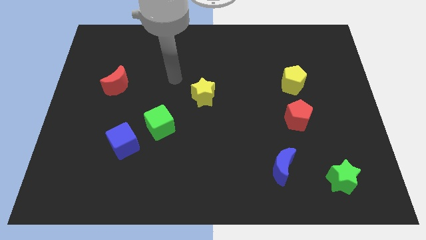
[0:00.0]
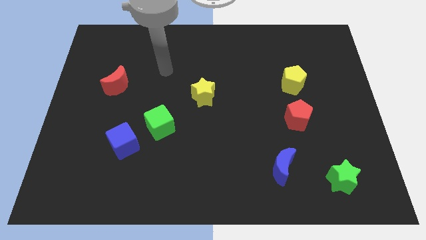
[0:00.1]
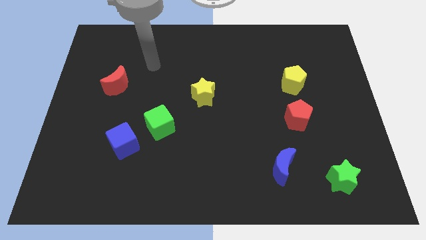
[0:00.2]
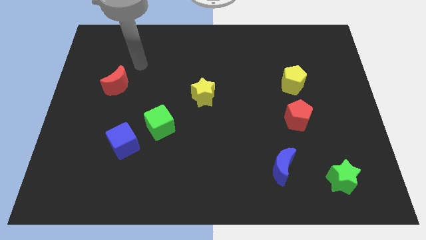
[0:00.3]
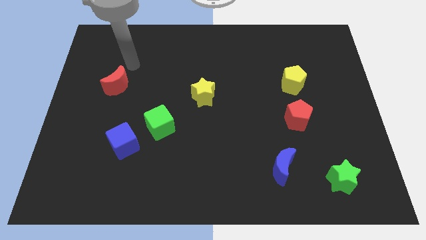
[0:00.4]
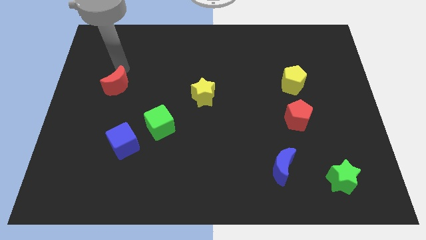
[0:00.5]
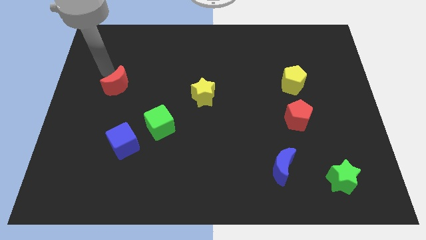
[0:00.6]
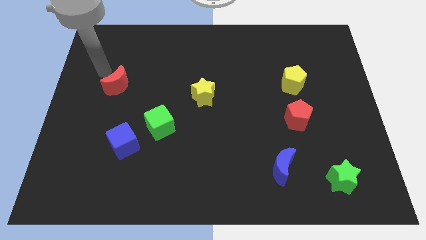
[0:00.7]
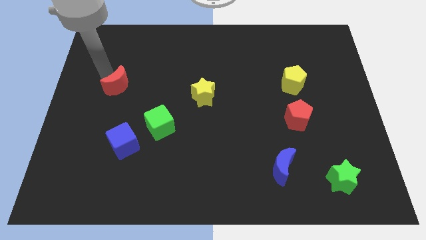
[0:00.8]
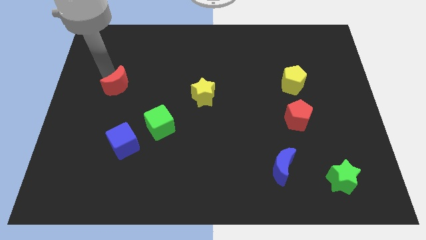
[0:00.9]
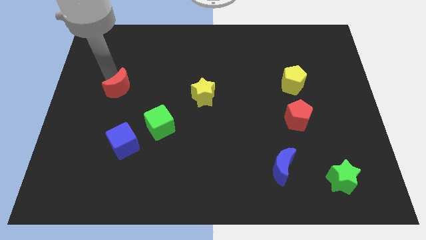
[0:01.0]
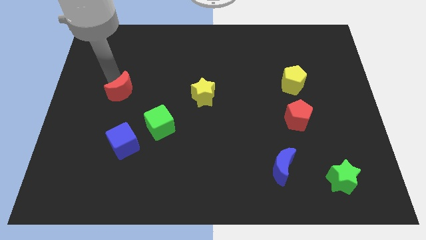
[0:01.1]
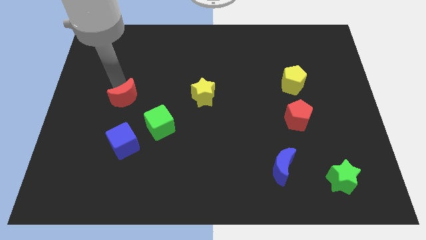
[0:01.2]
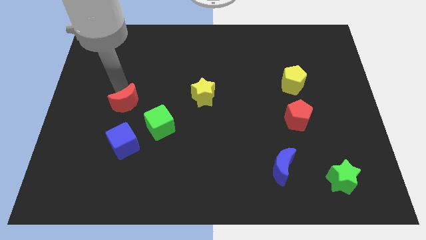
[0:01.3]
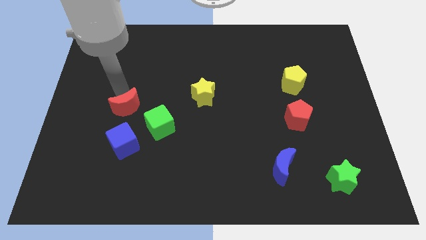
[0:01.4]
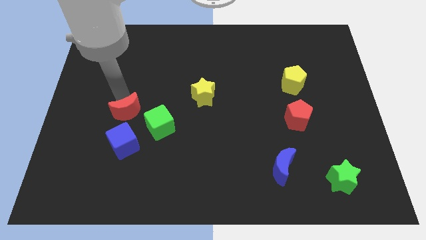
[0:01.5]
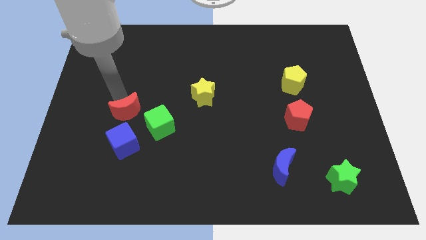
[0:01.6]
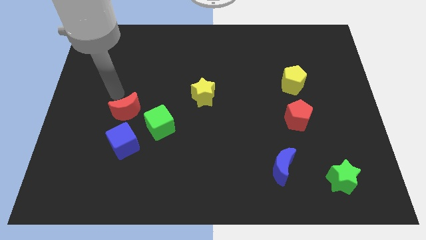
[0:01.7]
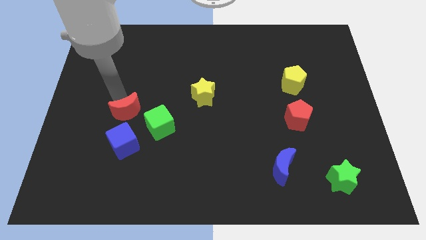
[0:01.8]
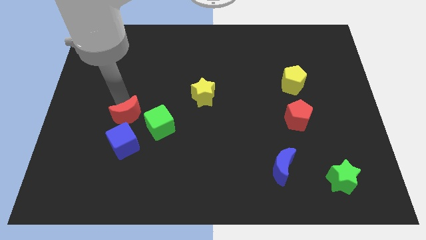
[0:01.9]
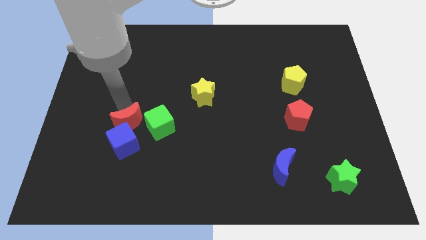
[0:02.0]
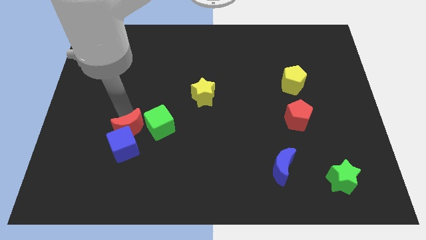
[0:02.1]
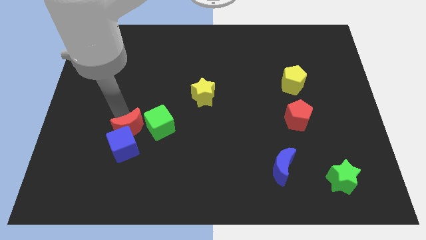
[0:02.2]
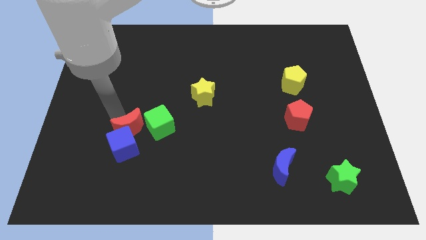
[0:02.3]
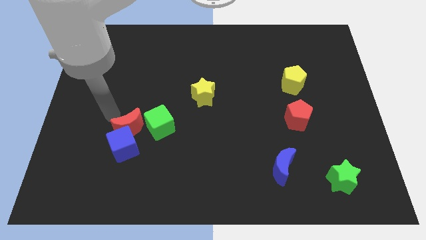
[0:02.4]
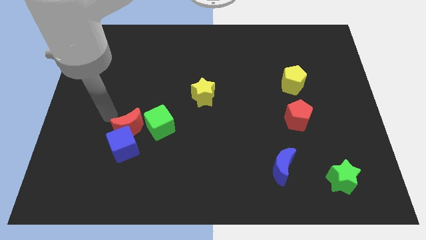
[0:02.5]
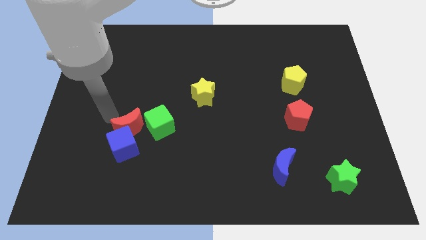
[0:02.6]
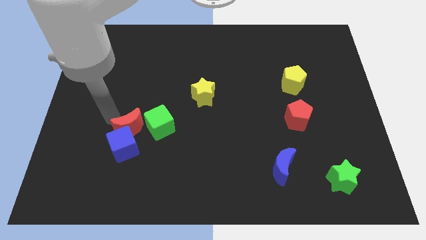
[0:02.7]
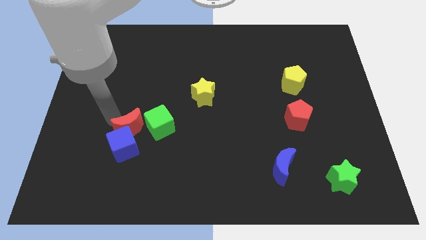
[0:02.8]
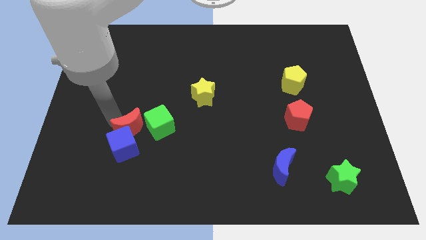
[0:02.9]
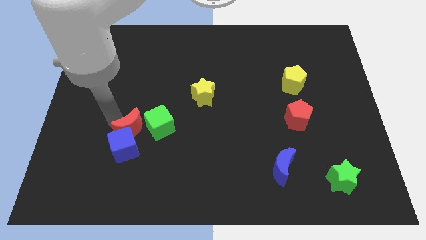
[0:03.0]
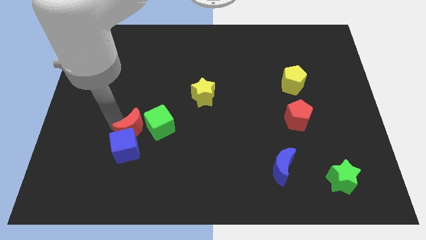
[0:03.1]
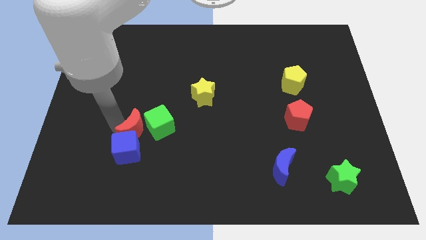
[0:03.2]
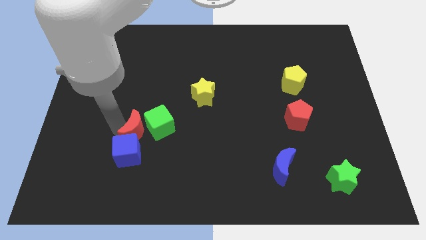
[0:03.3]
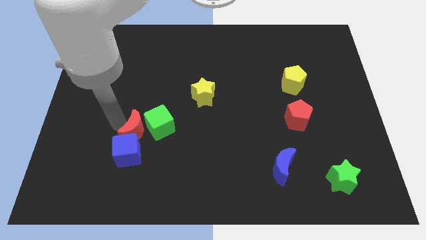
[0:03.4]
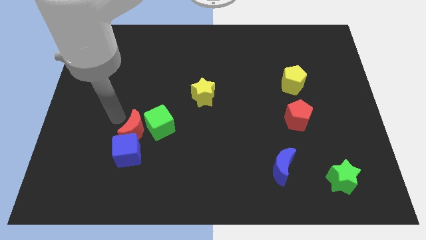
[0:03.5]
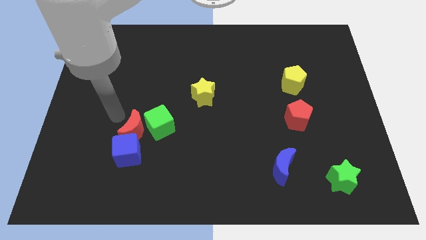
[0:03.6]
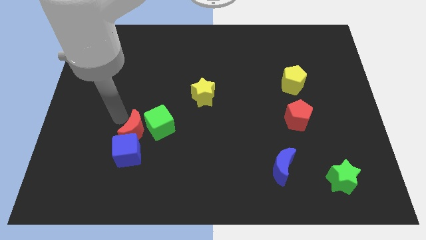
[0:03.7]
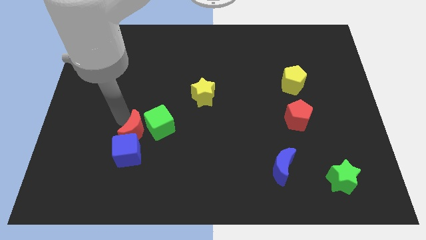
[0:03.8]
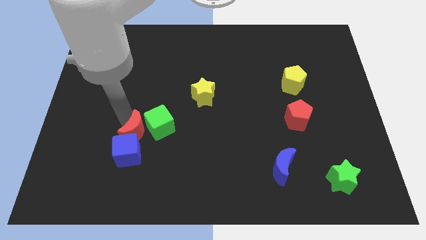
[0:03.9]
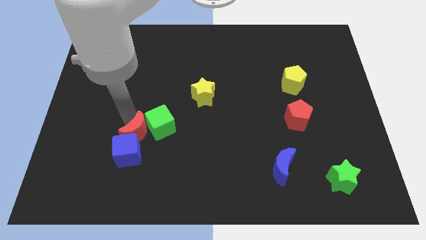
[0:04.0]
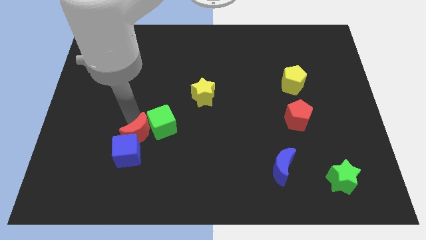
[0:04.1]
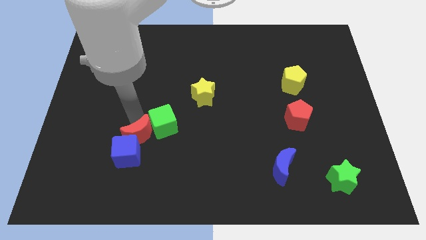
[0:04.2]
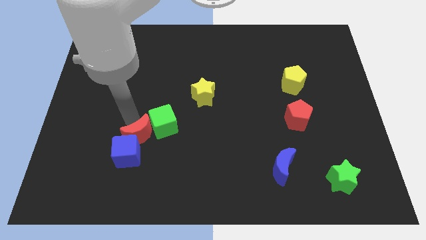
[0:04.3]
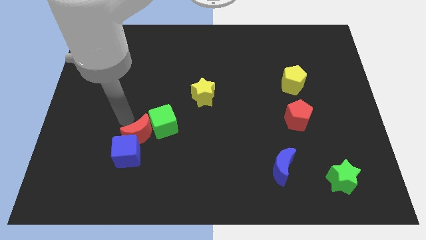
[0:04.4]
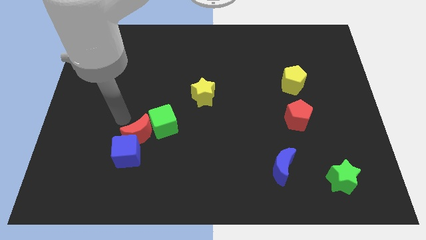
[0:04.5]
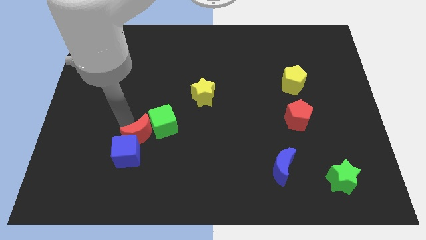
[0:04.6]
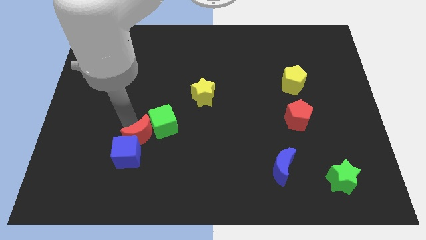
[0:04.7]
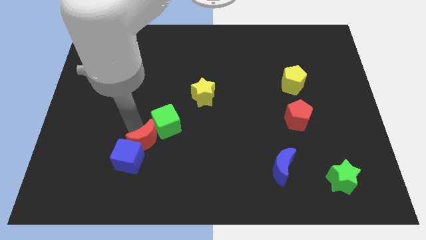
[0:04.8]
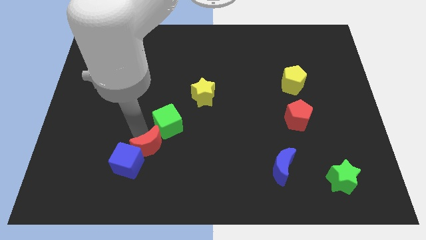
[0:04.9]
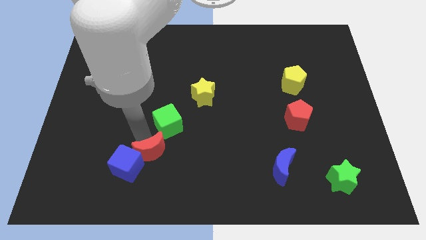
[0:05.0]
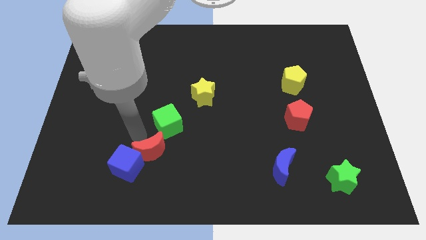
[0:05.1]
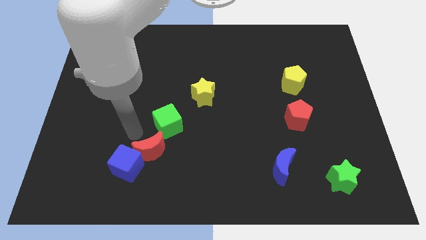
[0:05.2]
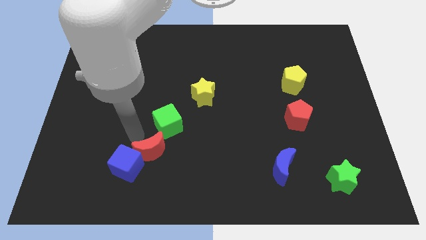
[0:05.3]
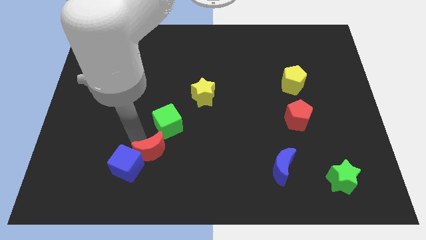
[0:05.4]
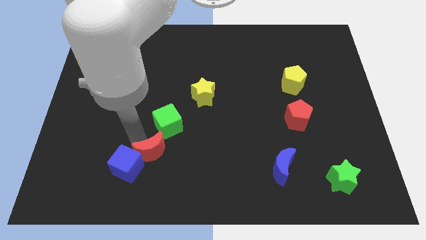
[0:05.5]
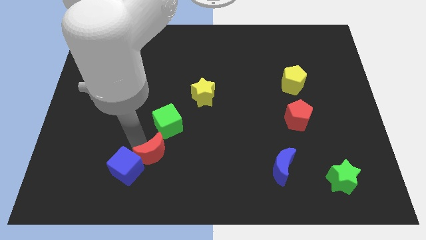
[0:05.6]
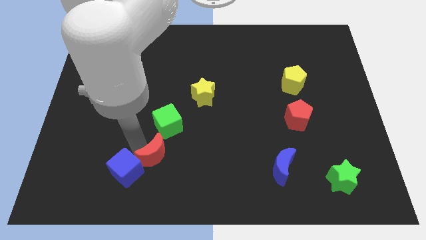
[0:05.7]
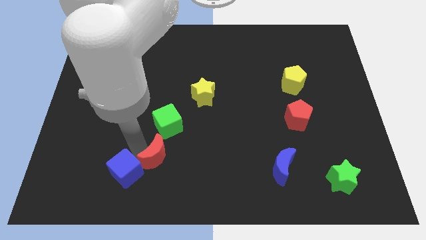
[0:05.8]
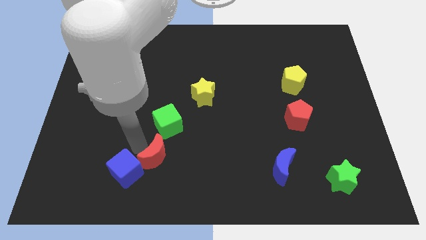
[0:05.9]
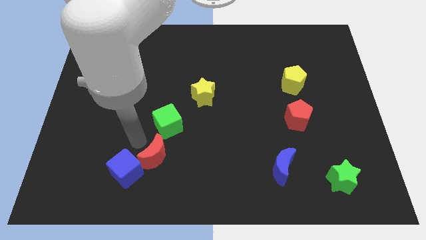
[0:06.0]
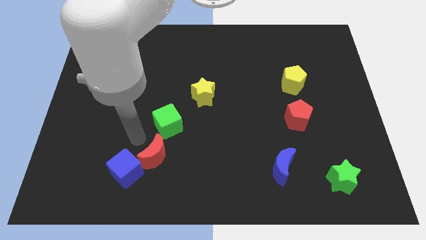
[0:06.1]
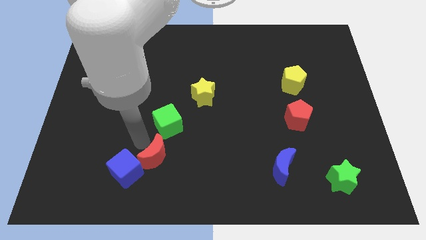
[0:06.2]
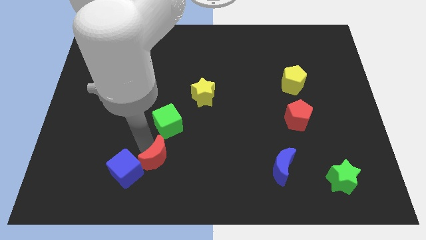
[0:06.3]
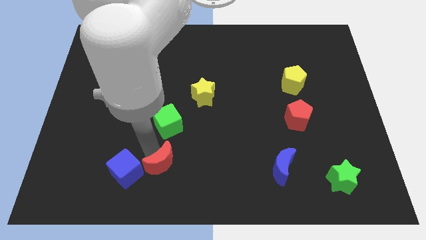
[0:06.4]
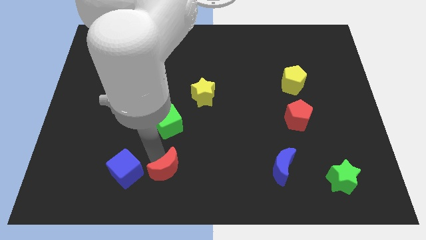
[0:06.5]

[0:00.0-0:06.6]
put the red moon to the bottom side

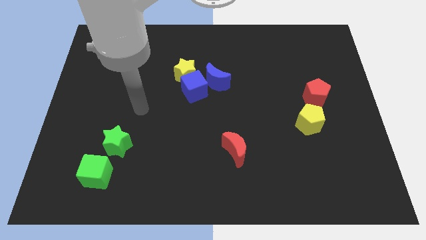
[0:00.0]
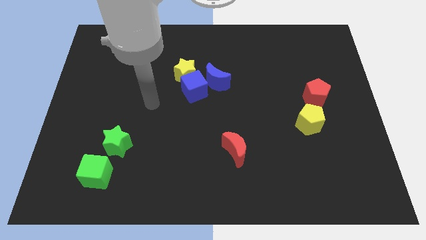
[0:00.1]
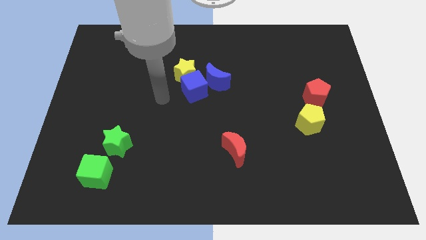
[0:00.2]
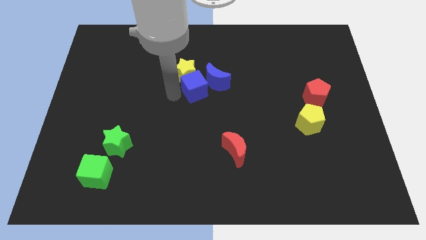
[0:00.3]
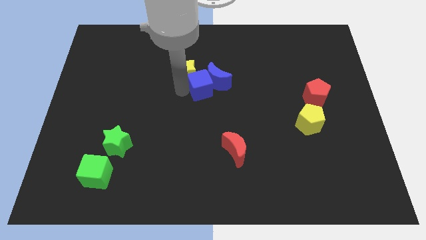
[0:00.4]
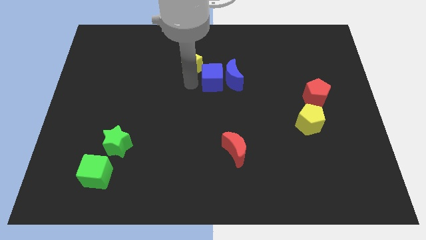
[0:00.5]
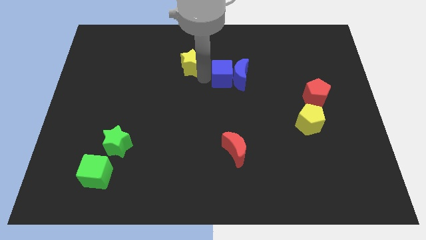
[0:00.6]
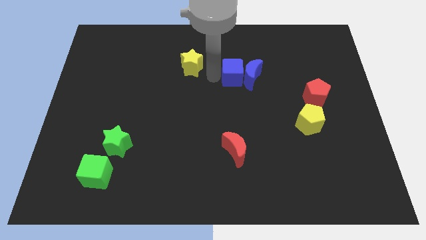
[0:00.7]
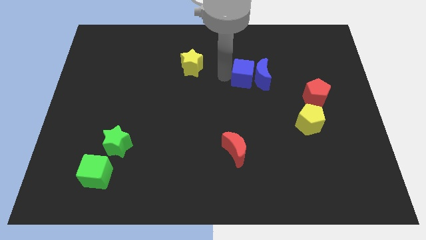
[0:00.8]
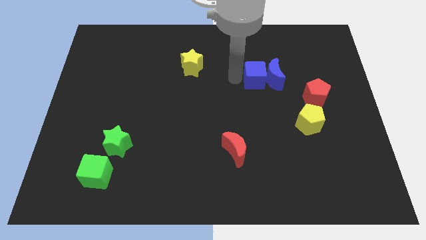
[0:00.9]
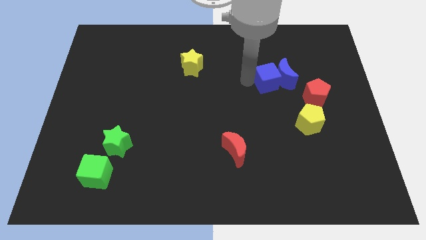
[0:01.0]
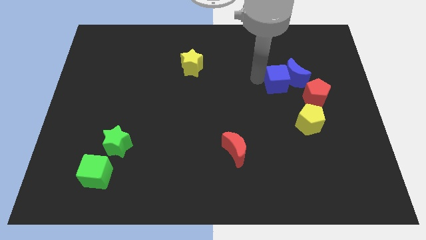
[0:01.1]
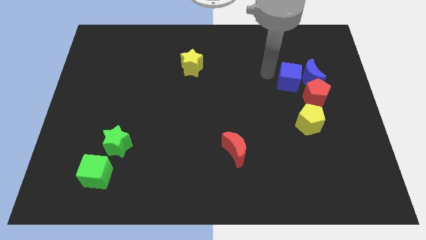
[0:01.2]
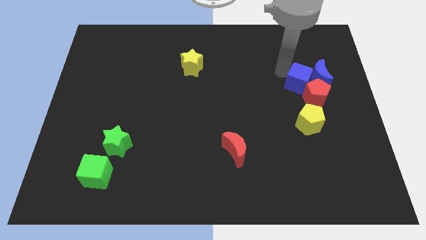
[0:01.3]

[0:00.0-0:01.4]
put the blue moon to the right side of the board
